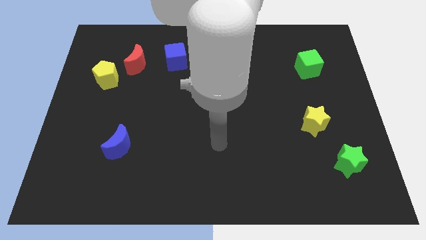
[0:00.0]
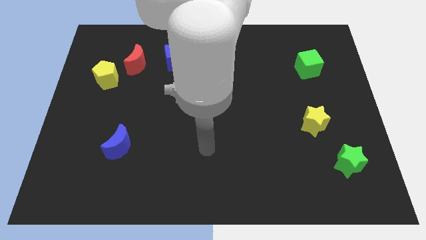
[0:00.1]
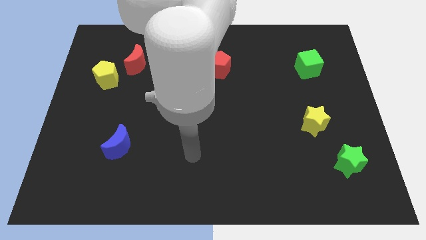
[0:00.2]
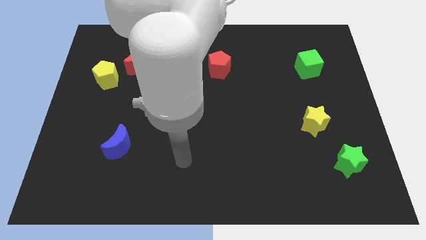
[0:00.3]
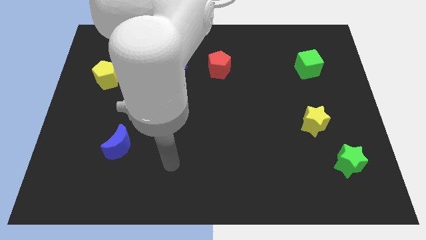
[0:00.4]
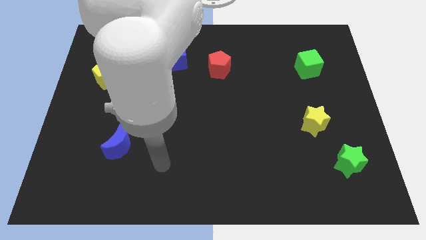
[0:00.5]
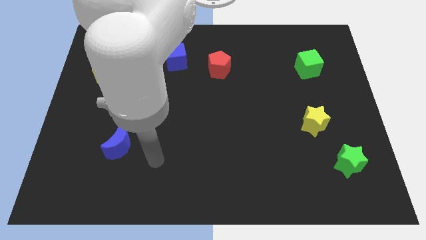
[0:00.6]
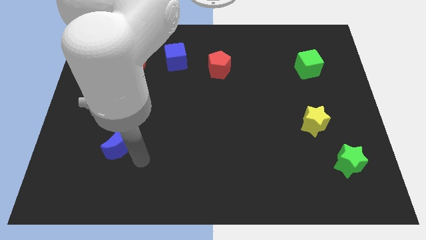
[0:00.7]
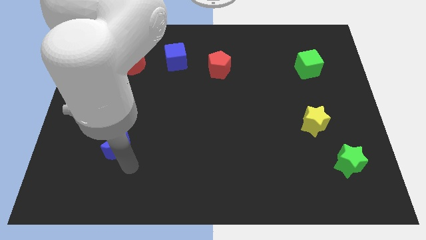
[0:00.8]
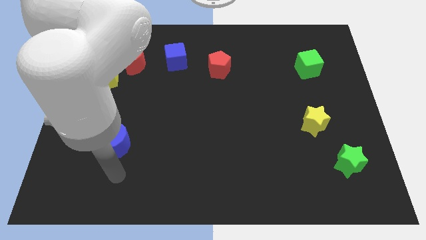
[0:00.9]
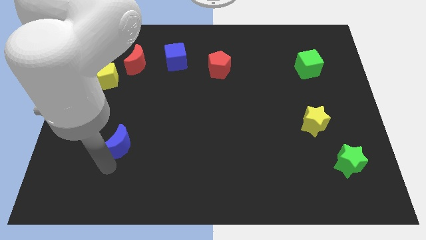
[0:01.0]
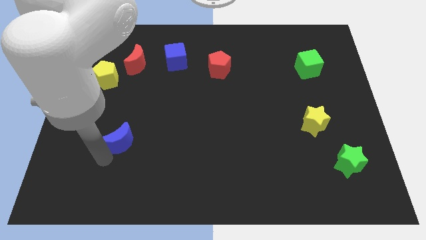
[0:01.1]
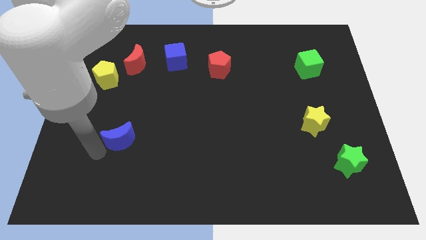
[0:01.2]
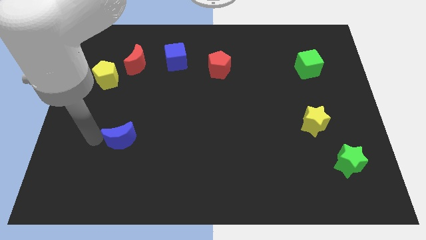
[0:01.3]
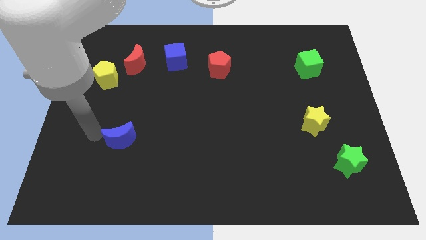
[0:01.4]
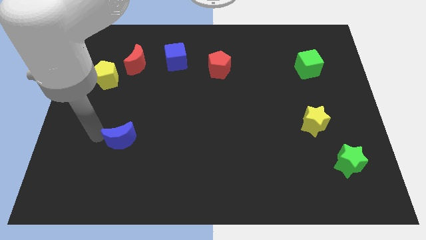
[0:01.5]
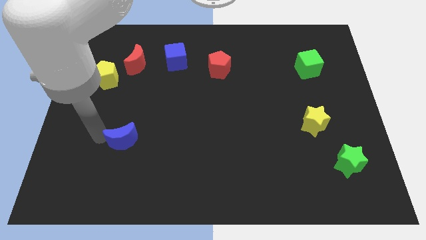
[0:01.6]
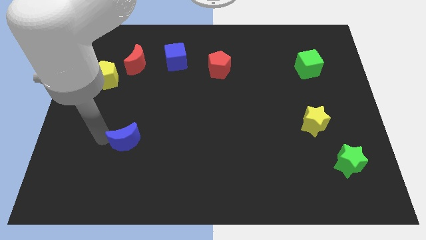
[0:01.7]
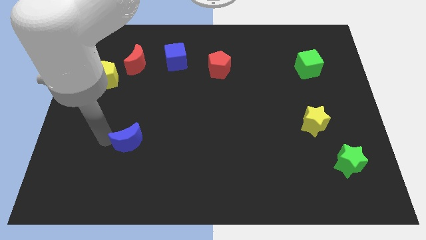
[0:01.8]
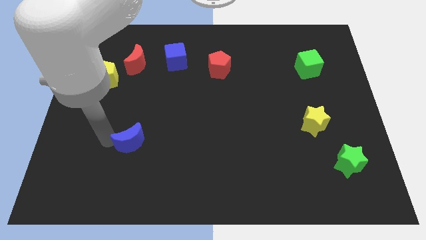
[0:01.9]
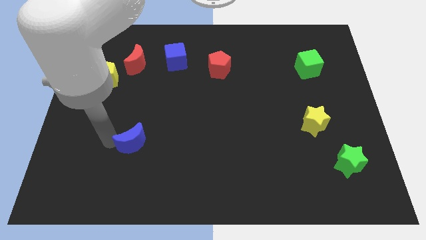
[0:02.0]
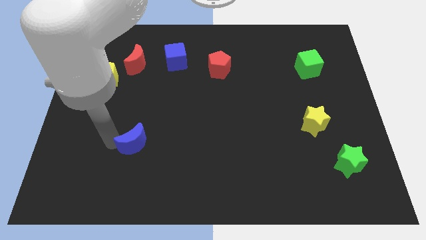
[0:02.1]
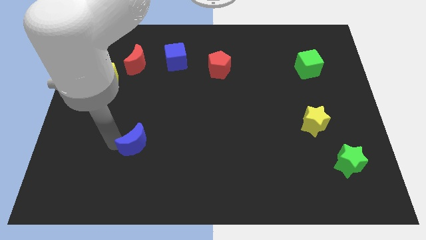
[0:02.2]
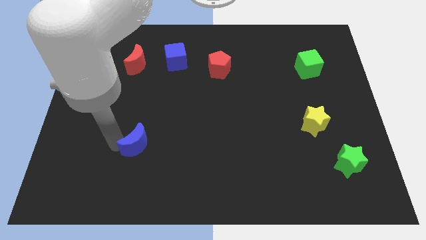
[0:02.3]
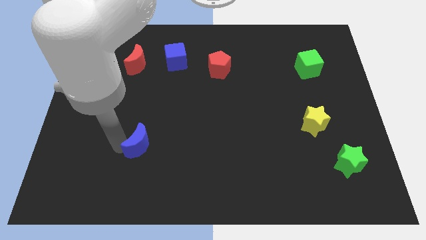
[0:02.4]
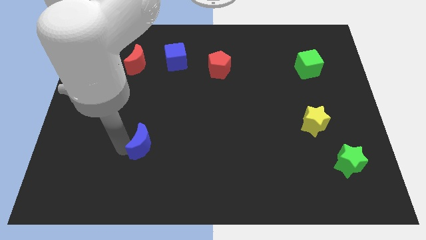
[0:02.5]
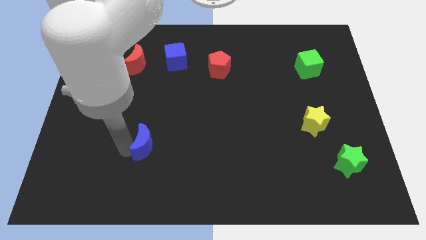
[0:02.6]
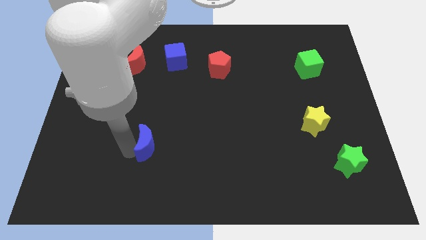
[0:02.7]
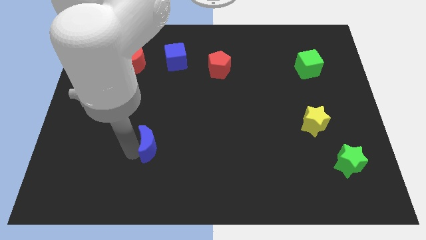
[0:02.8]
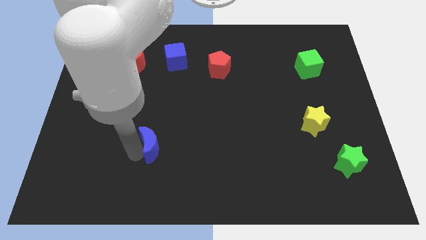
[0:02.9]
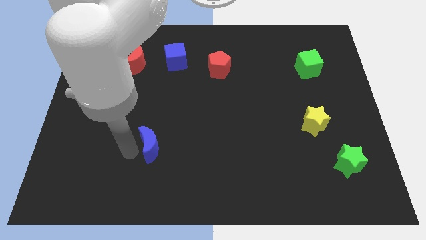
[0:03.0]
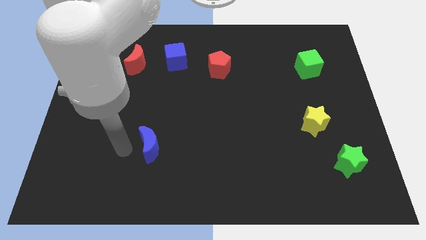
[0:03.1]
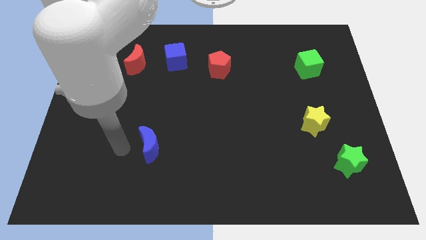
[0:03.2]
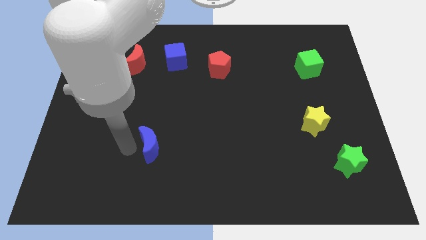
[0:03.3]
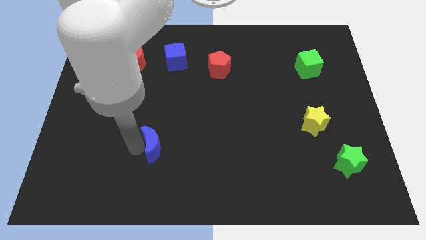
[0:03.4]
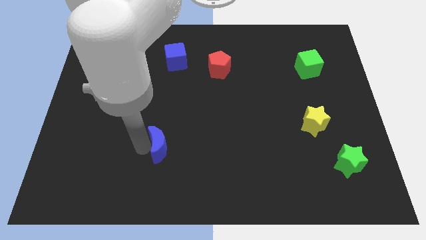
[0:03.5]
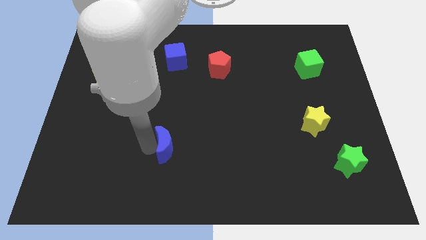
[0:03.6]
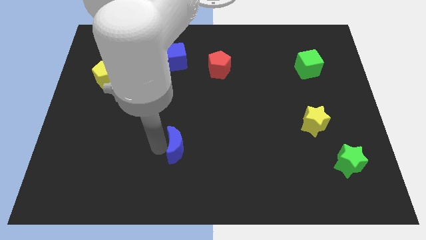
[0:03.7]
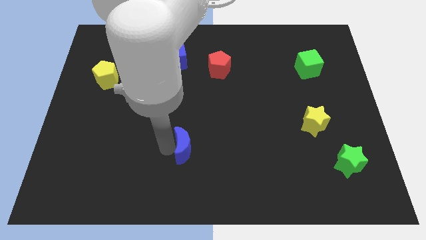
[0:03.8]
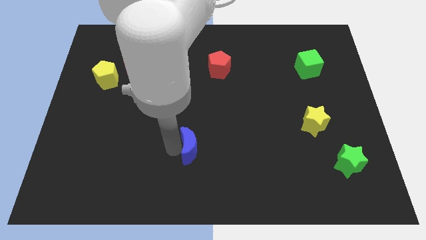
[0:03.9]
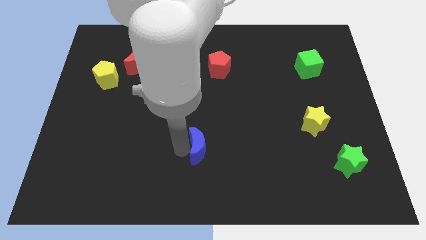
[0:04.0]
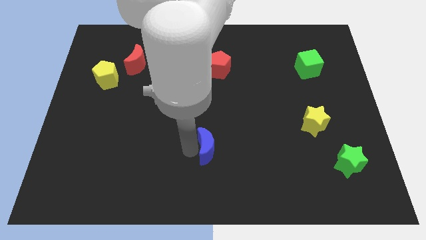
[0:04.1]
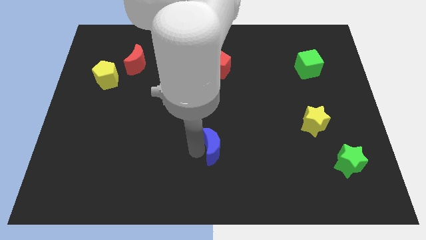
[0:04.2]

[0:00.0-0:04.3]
push the blue moon right

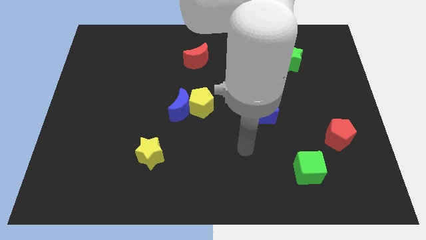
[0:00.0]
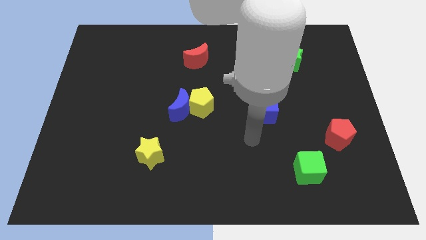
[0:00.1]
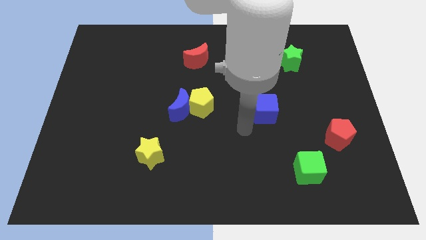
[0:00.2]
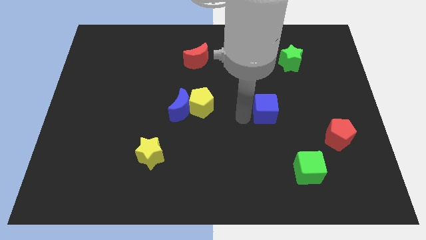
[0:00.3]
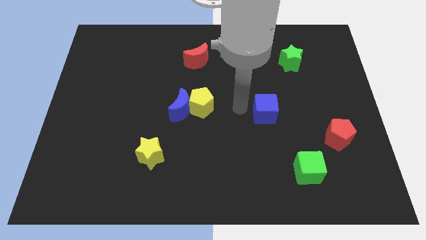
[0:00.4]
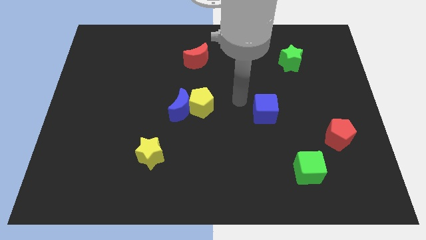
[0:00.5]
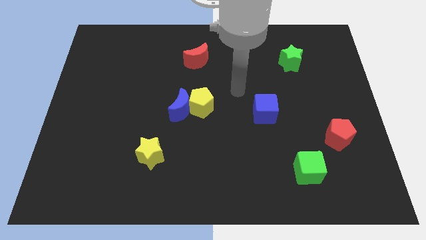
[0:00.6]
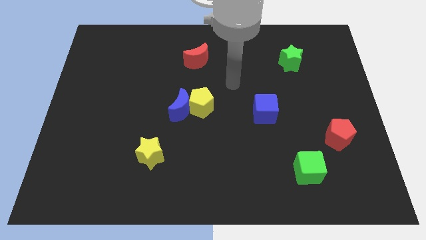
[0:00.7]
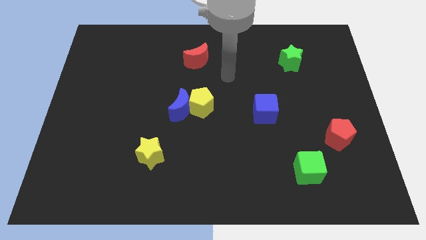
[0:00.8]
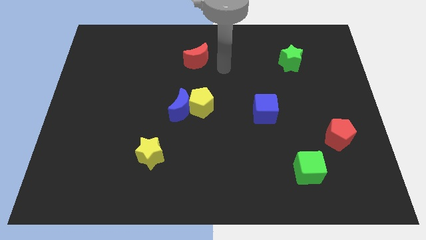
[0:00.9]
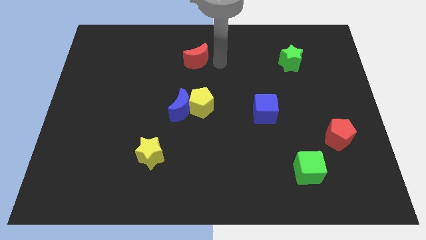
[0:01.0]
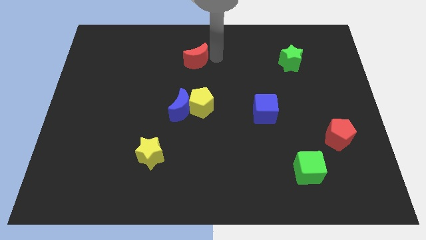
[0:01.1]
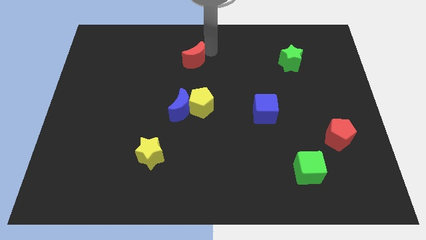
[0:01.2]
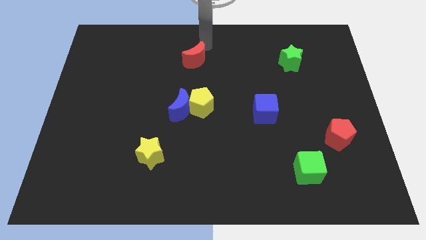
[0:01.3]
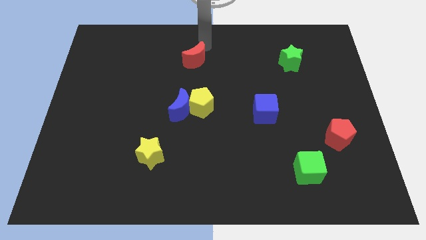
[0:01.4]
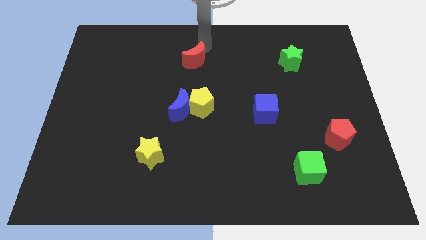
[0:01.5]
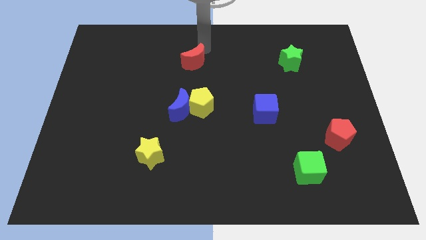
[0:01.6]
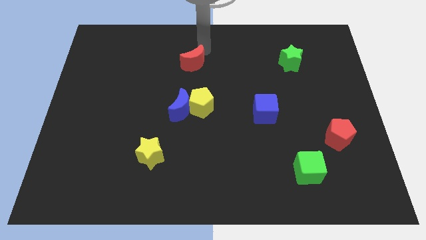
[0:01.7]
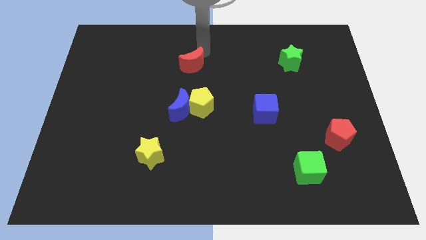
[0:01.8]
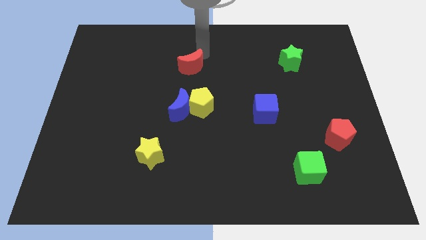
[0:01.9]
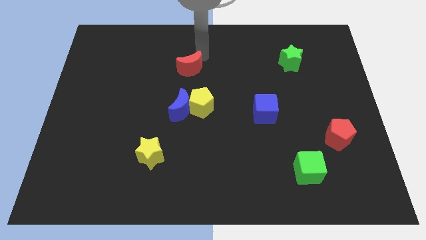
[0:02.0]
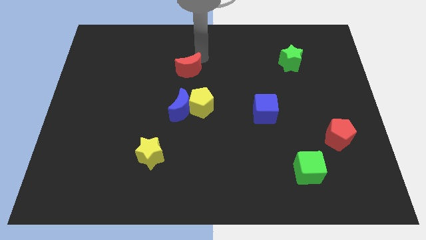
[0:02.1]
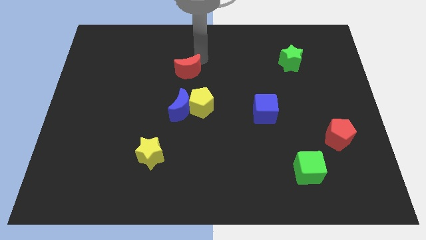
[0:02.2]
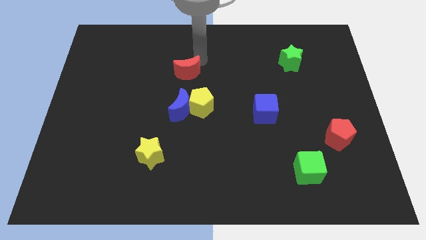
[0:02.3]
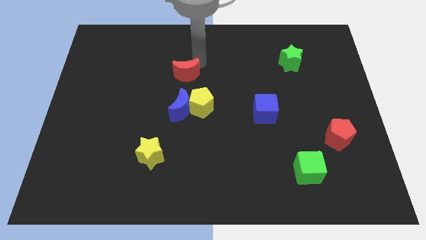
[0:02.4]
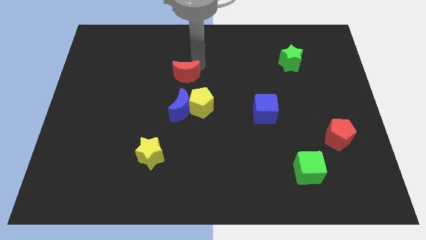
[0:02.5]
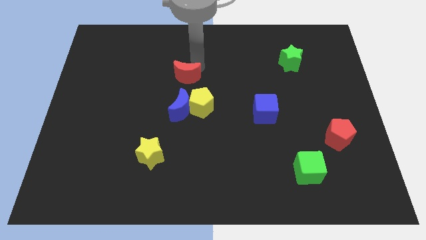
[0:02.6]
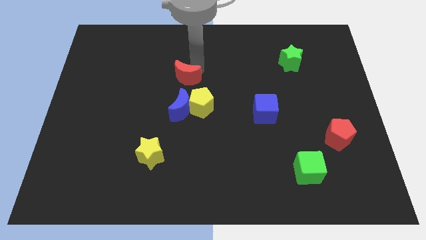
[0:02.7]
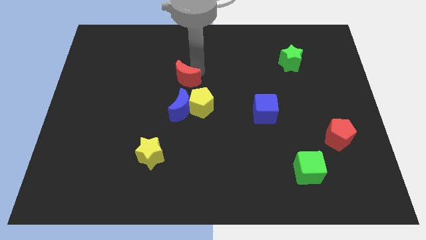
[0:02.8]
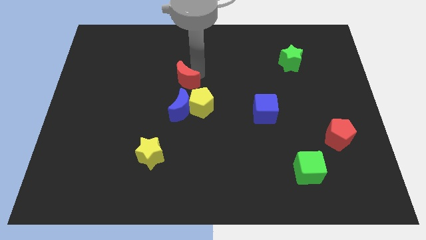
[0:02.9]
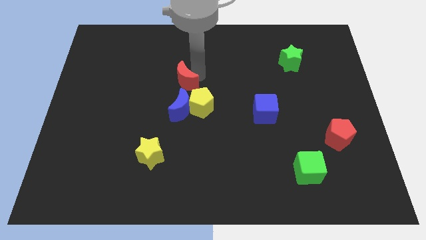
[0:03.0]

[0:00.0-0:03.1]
slide the red moon a little bit down and left

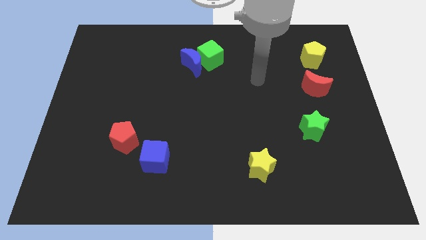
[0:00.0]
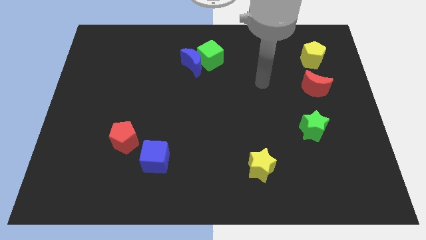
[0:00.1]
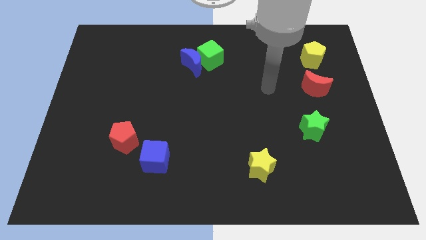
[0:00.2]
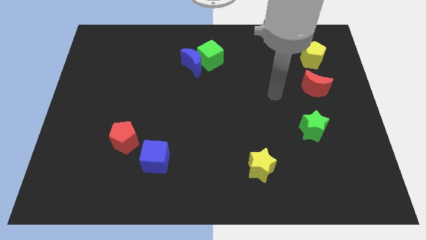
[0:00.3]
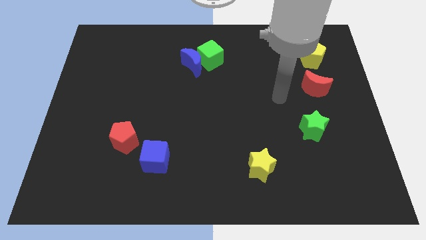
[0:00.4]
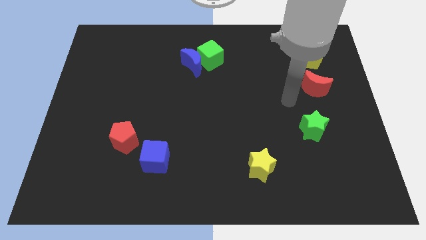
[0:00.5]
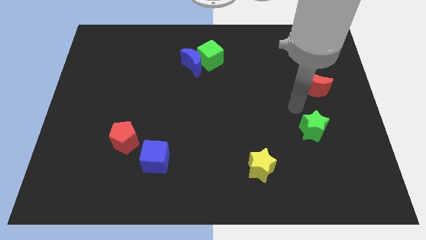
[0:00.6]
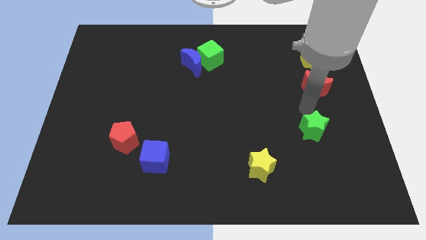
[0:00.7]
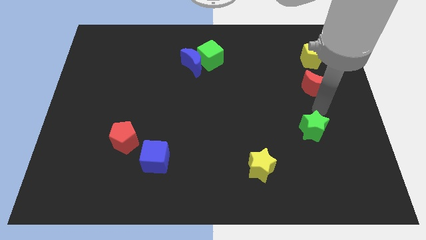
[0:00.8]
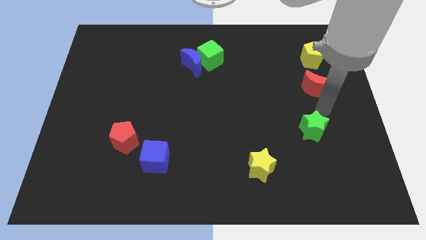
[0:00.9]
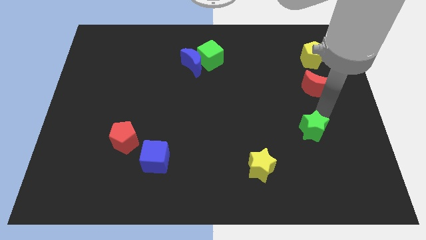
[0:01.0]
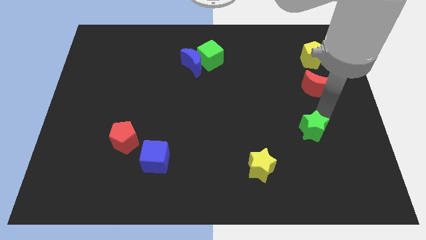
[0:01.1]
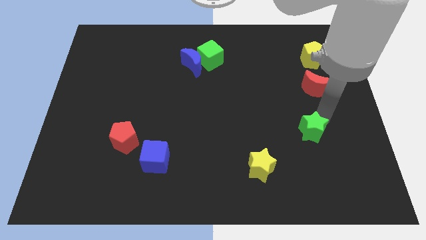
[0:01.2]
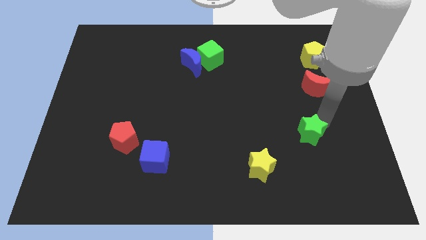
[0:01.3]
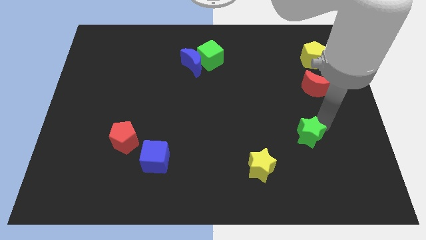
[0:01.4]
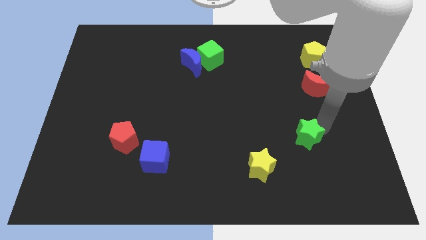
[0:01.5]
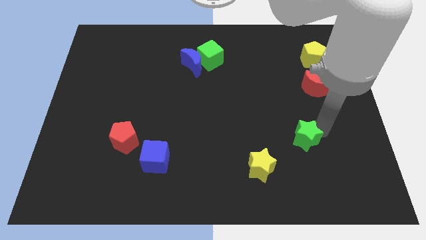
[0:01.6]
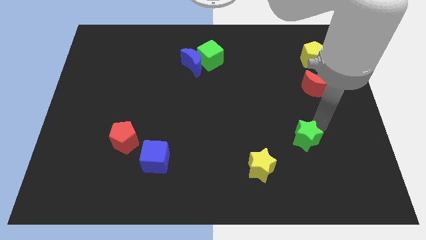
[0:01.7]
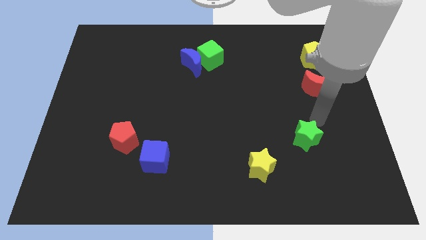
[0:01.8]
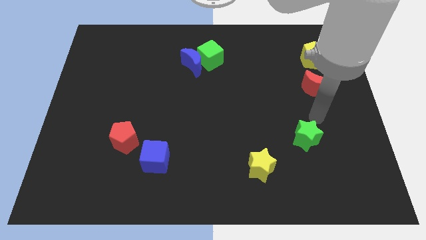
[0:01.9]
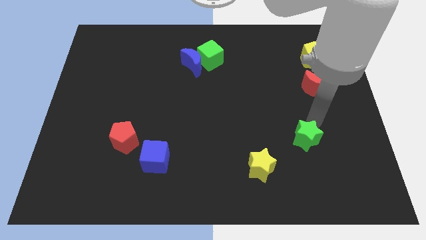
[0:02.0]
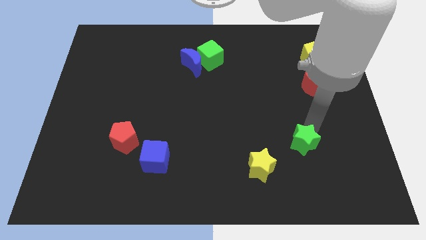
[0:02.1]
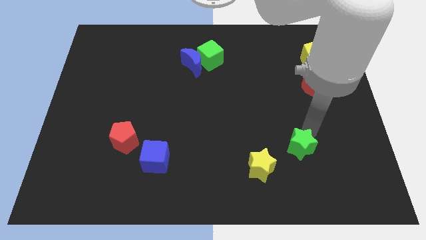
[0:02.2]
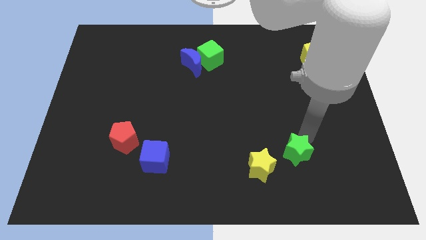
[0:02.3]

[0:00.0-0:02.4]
slightly slide the green star diagonally down and left
